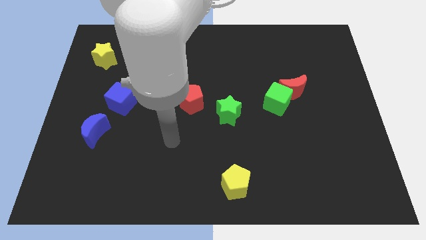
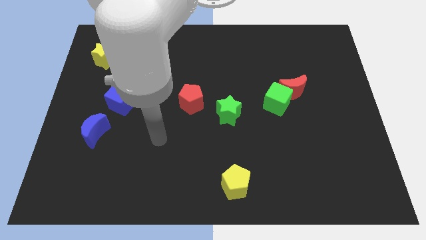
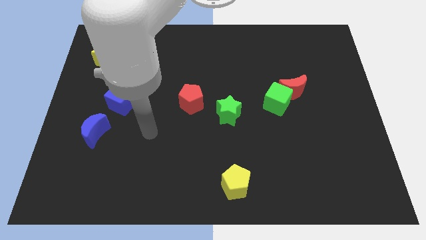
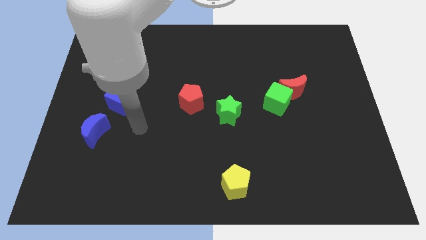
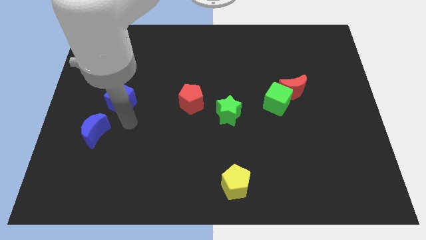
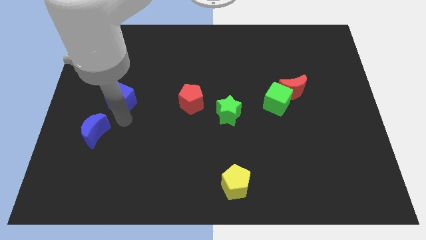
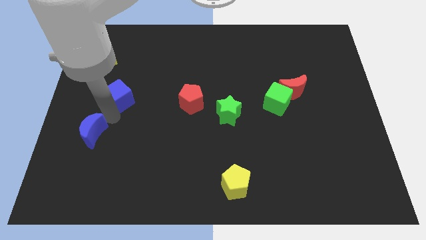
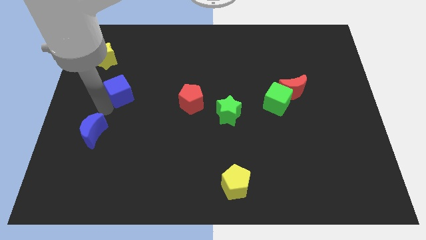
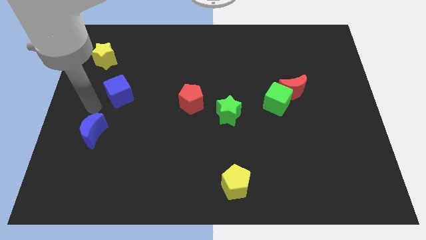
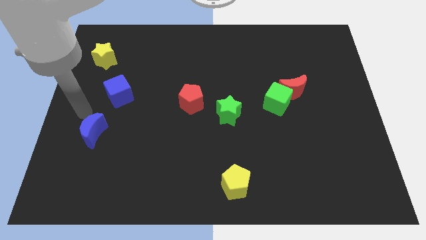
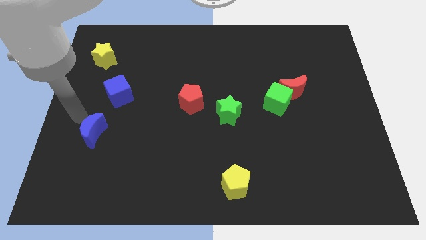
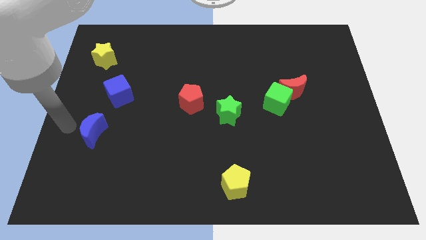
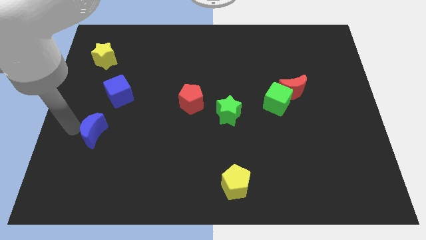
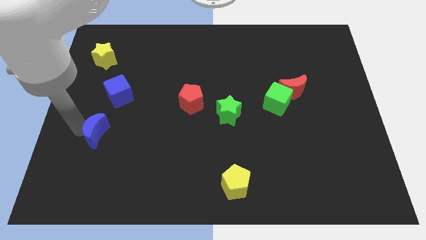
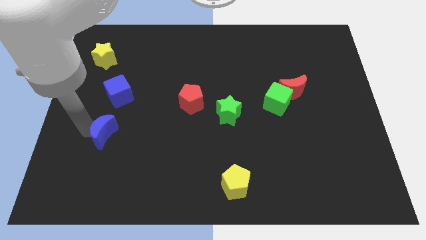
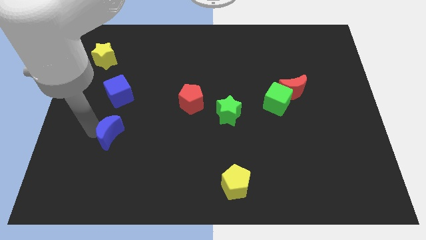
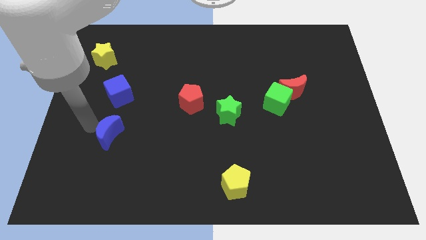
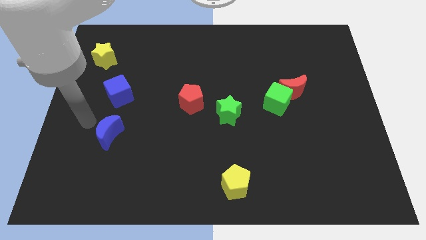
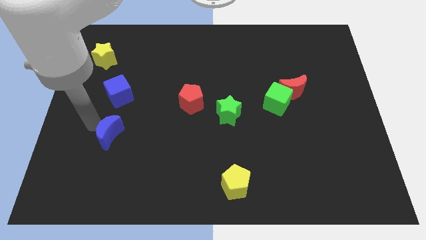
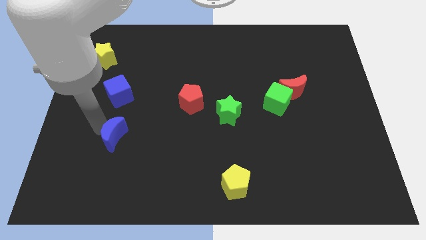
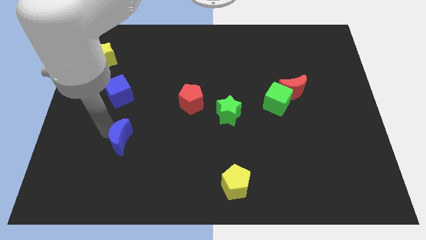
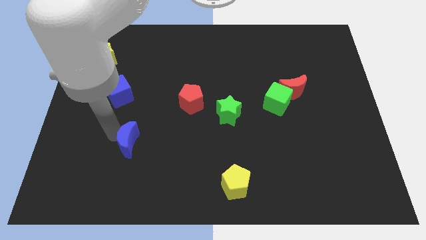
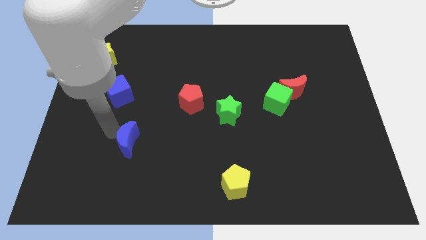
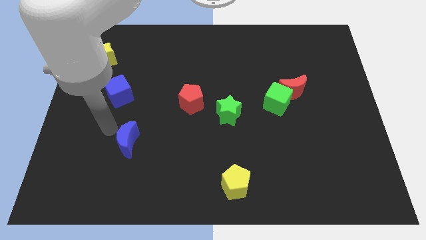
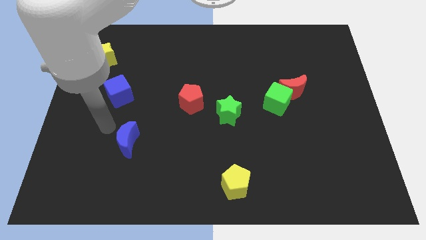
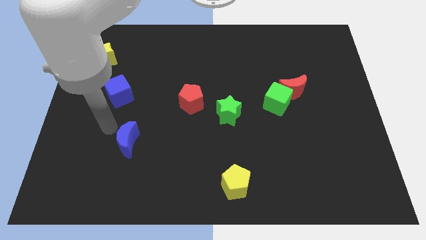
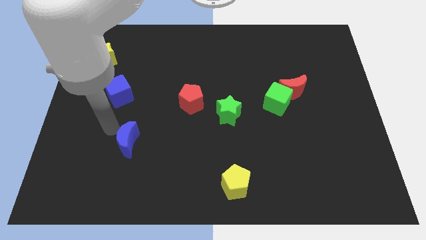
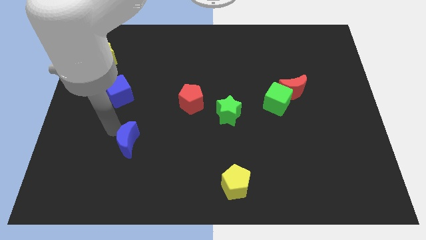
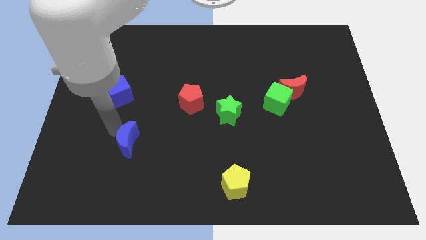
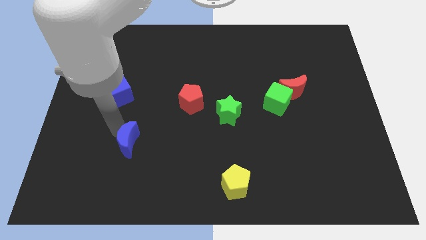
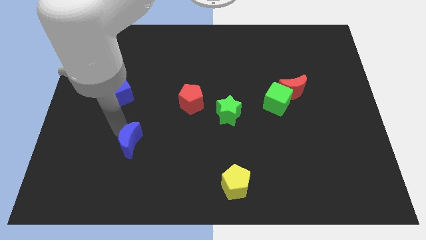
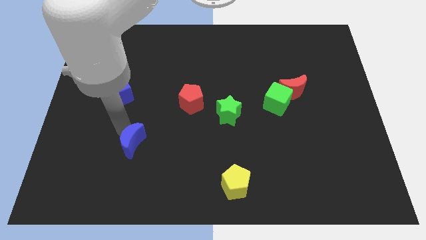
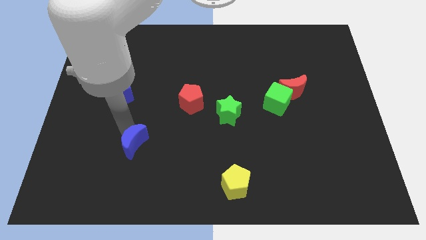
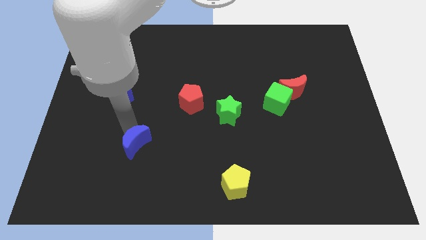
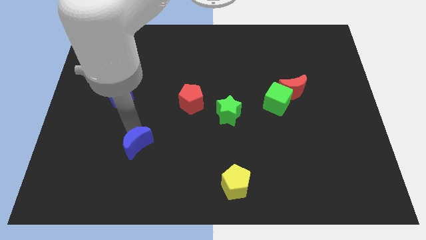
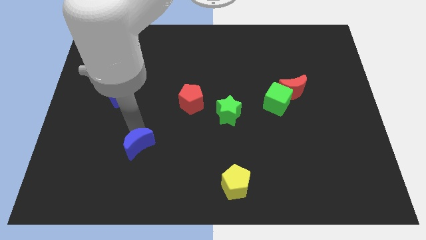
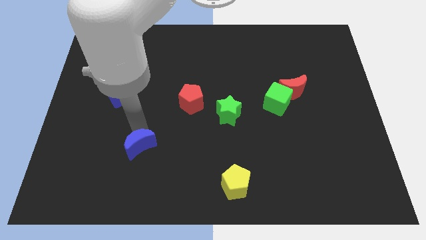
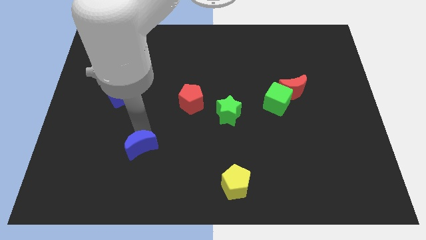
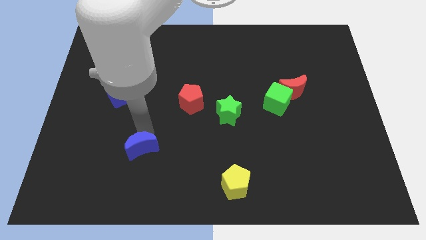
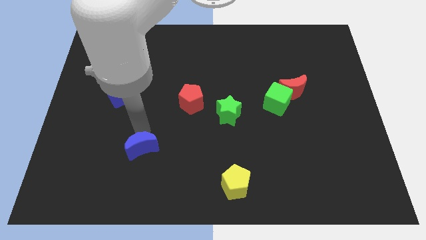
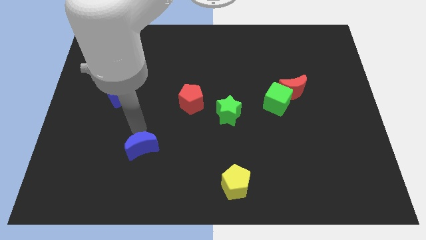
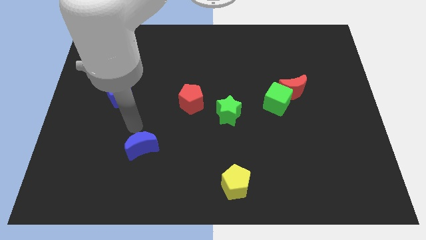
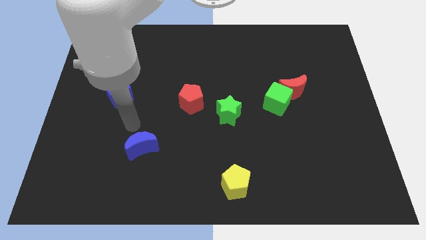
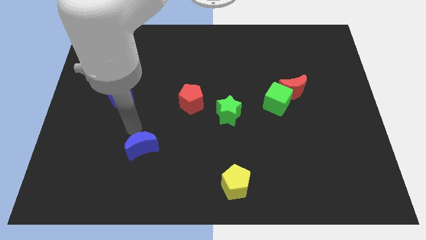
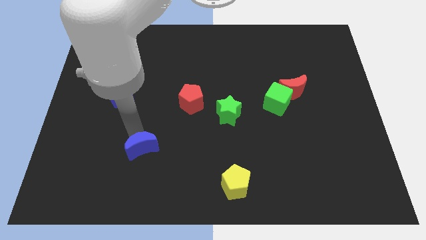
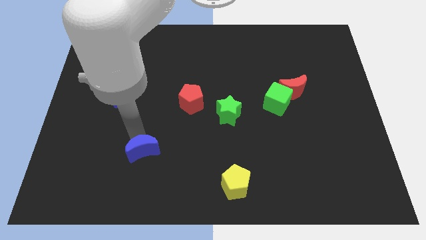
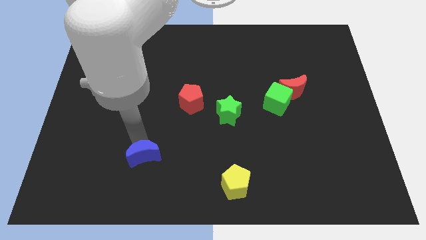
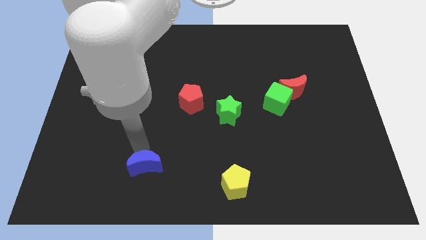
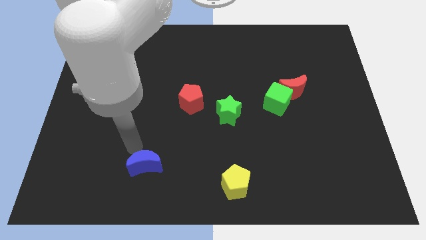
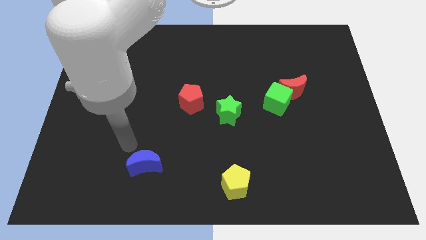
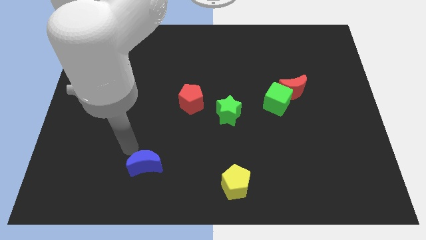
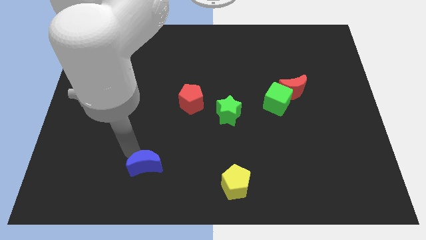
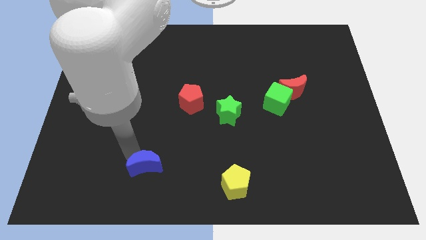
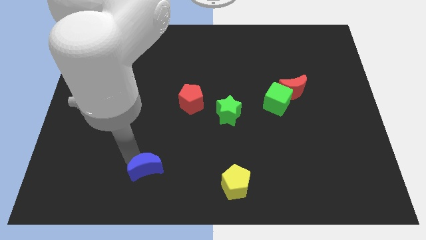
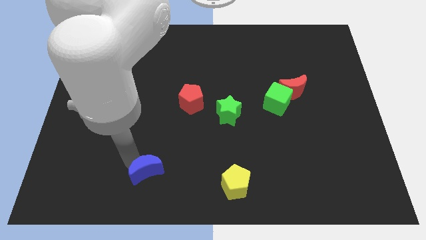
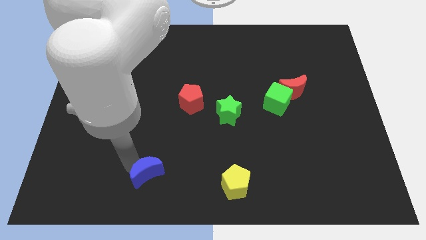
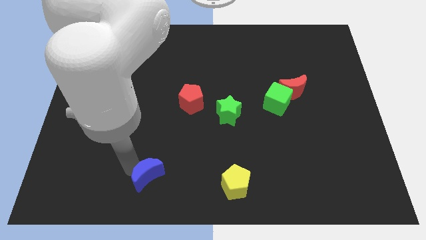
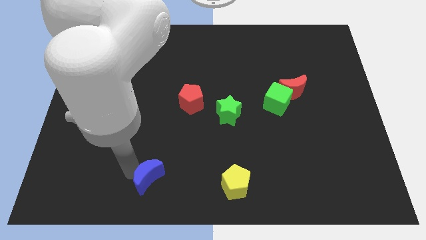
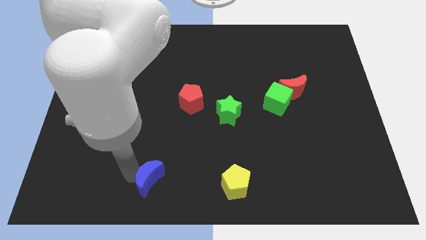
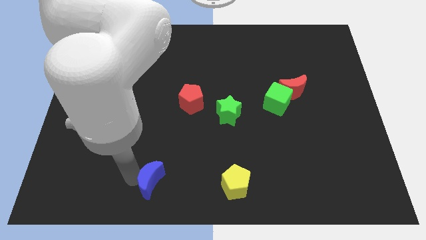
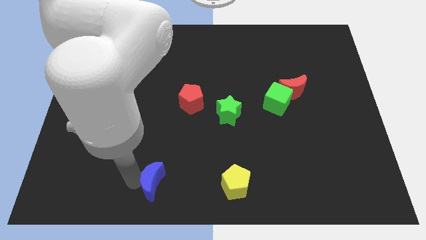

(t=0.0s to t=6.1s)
move the blue moon to the bottom

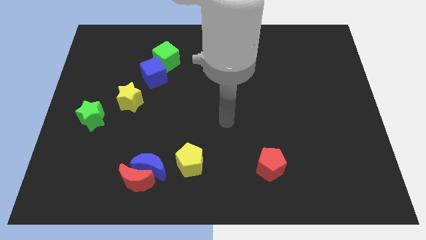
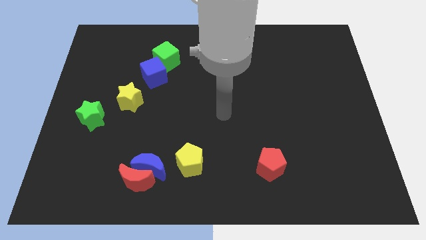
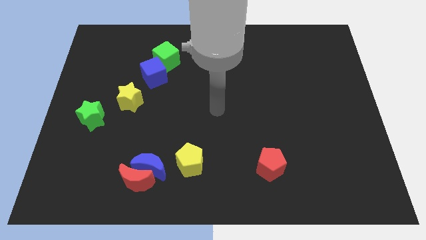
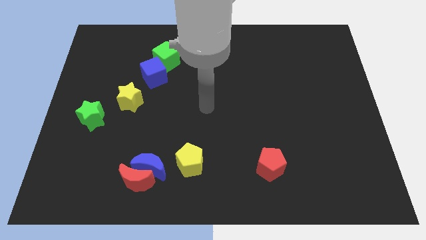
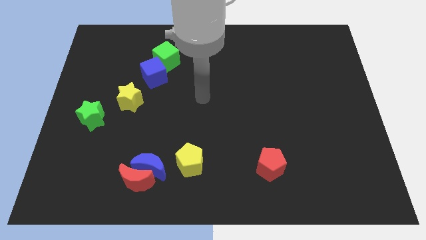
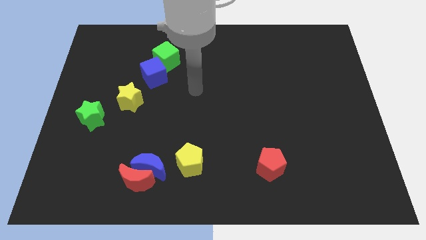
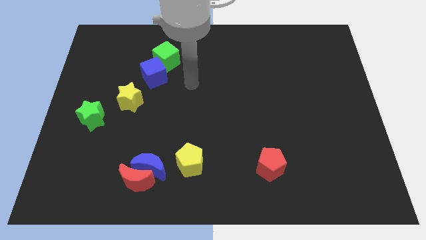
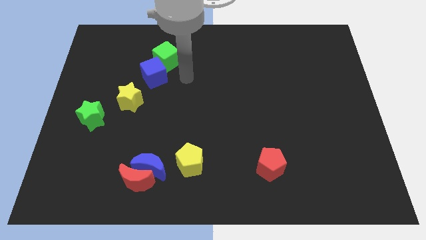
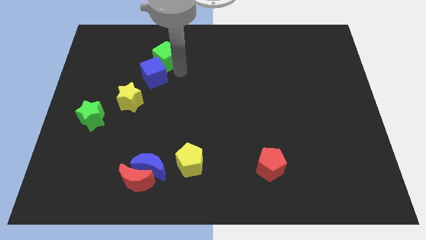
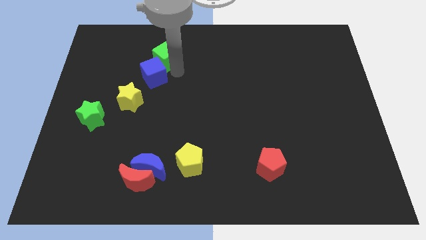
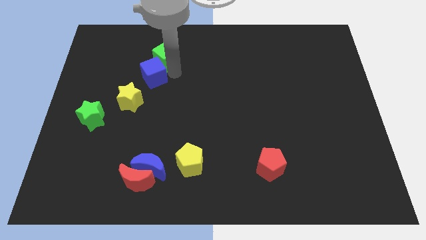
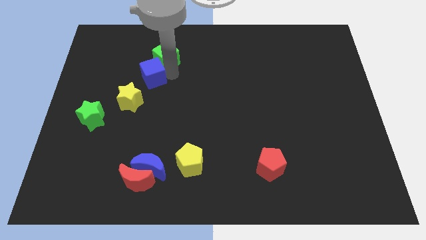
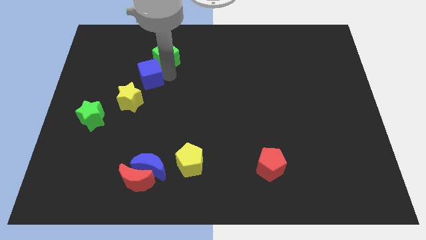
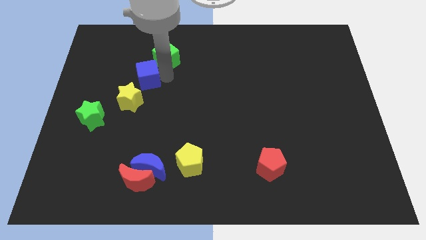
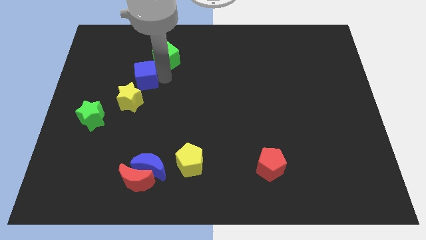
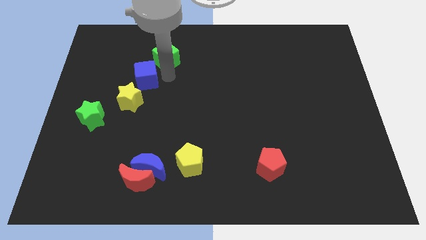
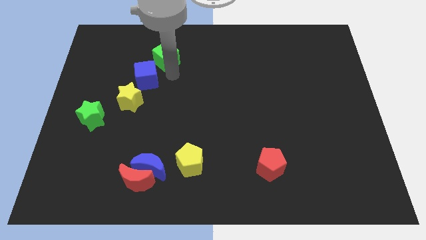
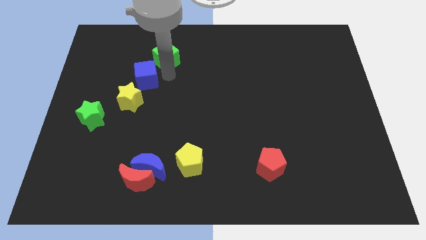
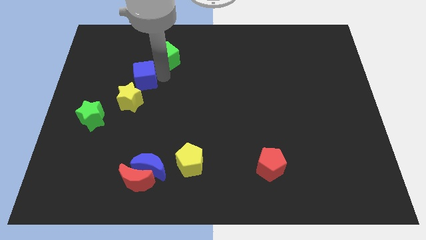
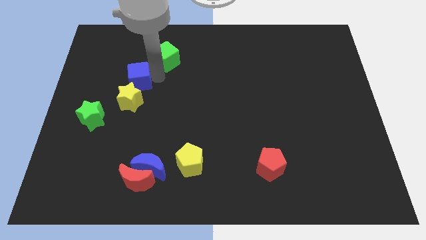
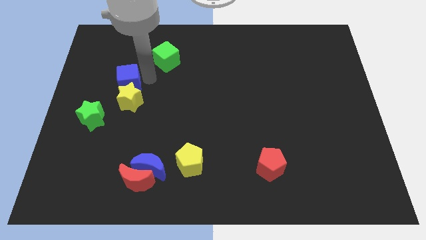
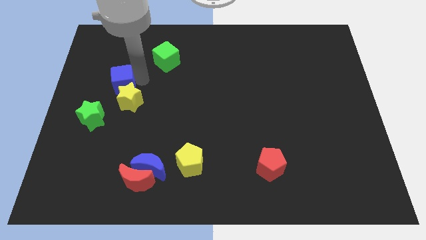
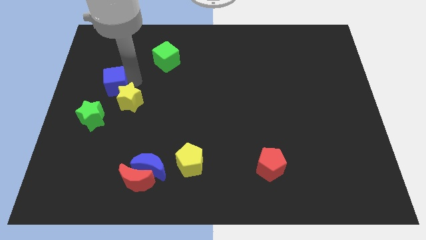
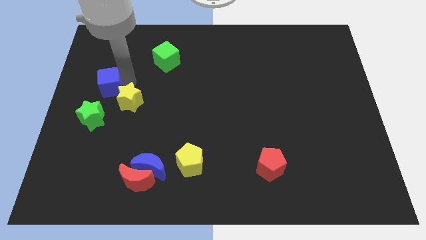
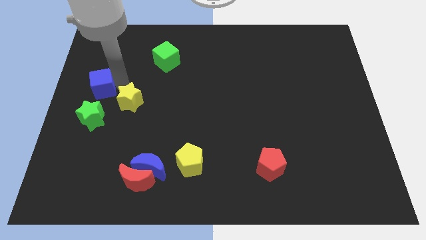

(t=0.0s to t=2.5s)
put the blue cube to the left side of the board
